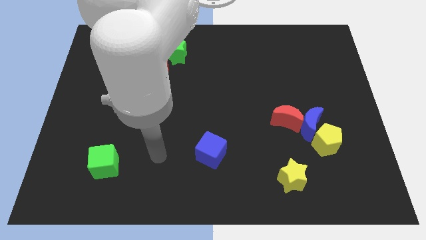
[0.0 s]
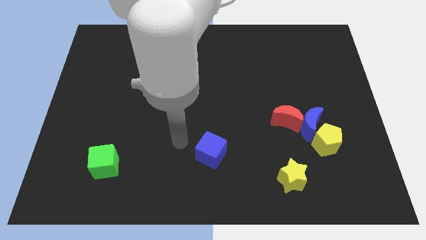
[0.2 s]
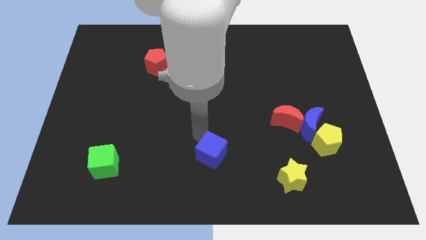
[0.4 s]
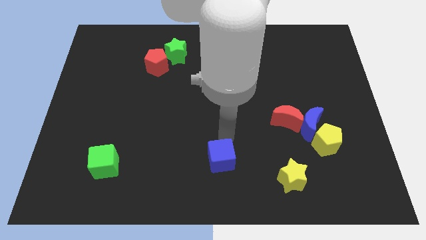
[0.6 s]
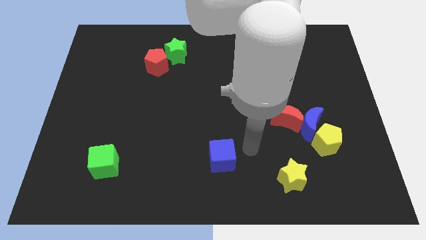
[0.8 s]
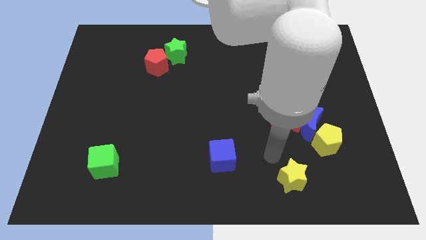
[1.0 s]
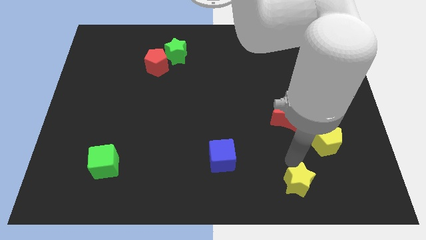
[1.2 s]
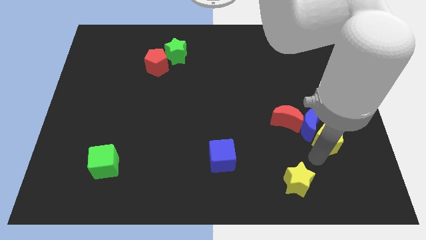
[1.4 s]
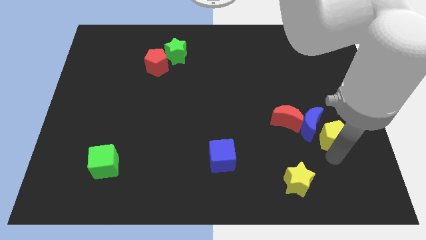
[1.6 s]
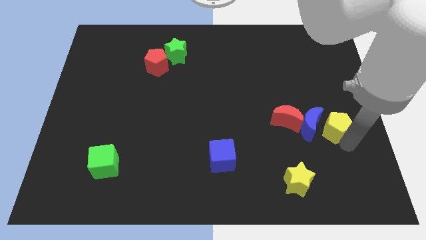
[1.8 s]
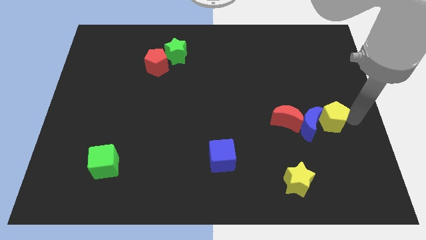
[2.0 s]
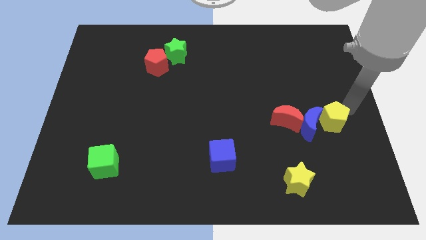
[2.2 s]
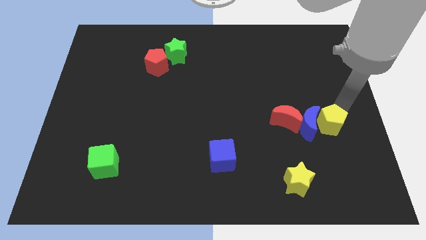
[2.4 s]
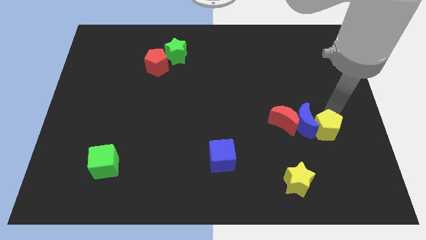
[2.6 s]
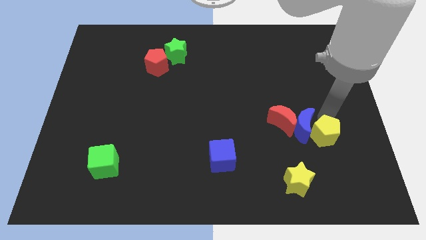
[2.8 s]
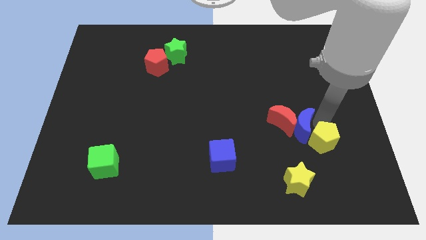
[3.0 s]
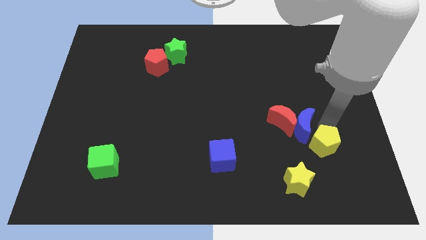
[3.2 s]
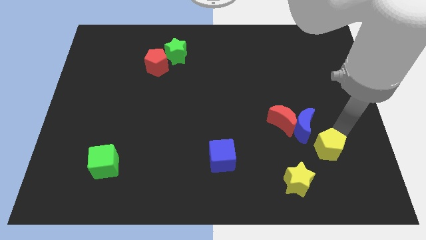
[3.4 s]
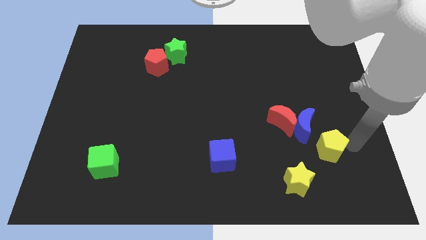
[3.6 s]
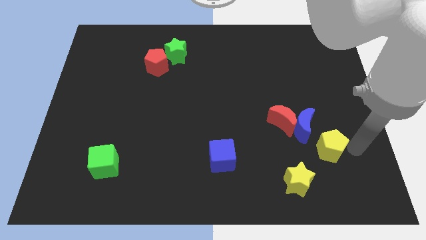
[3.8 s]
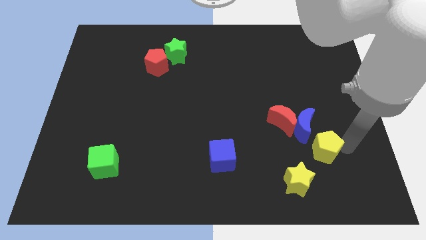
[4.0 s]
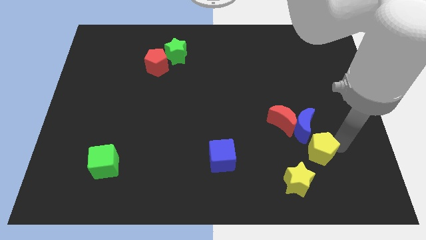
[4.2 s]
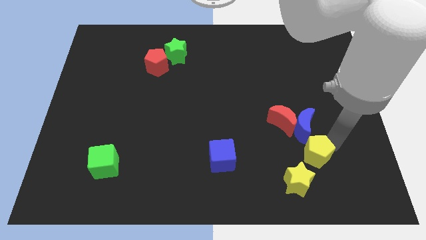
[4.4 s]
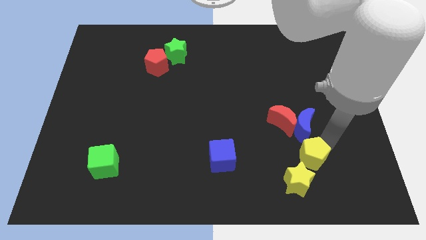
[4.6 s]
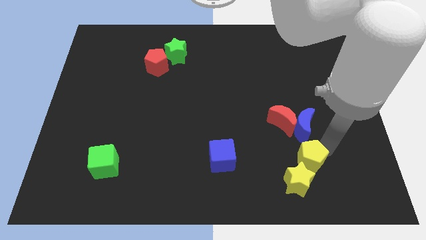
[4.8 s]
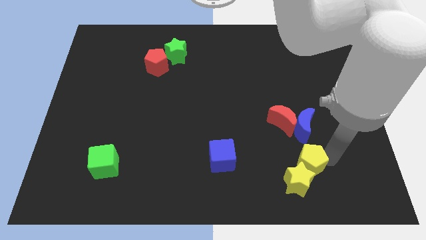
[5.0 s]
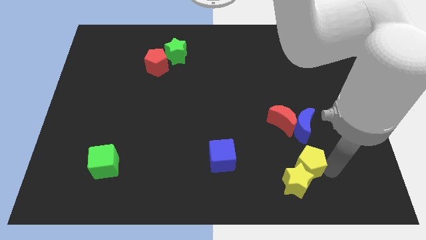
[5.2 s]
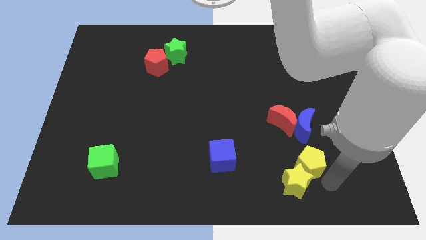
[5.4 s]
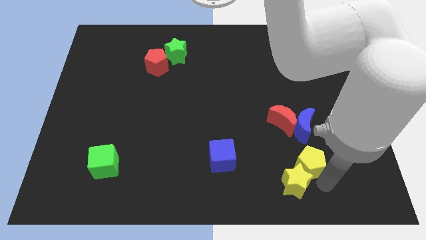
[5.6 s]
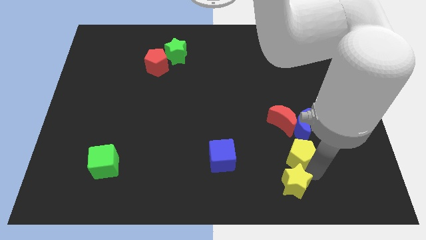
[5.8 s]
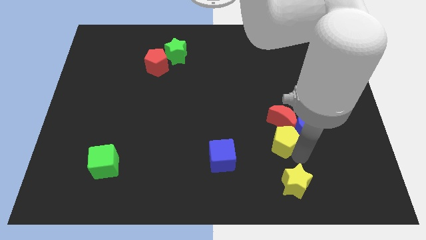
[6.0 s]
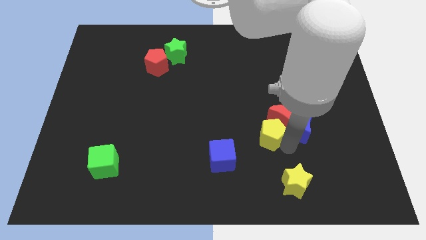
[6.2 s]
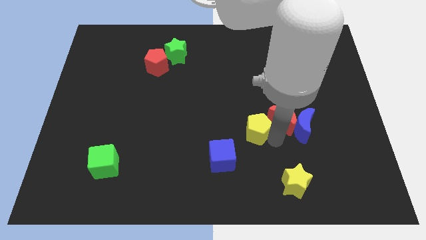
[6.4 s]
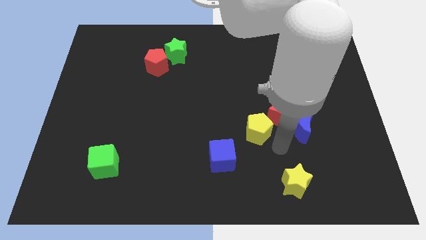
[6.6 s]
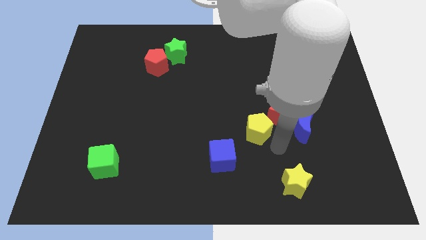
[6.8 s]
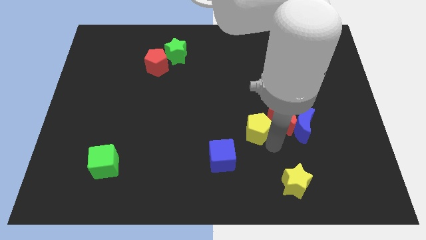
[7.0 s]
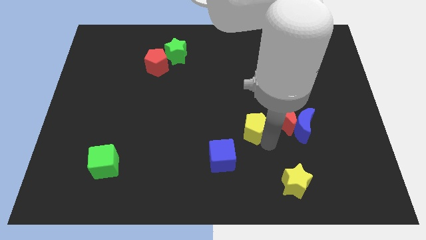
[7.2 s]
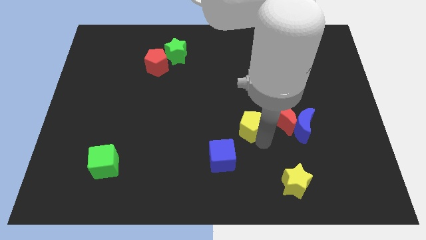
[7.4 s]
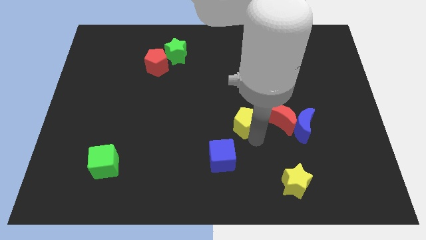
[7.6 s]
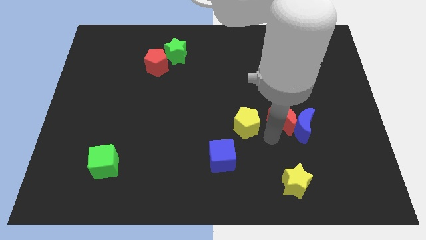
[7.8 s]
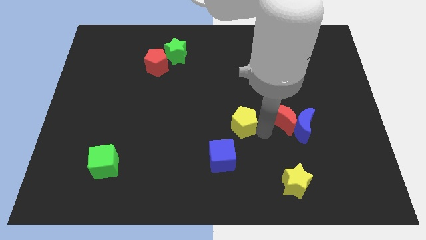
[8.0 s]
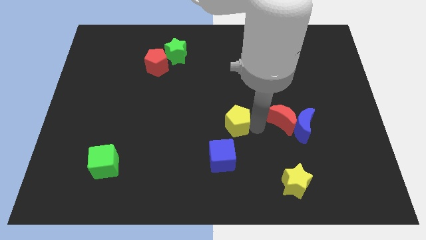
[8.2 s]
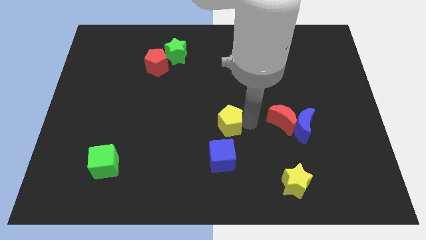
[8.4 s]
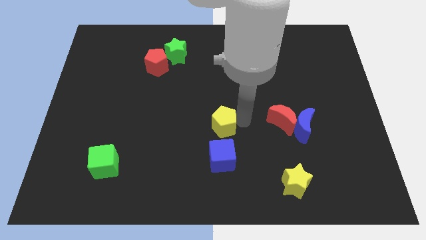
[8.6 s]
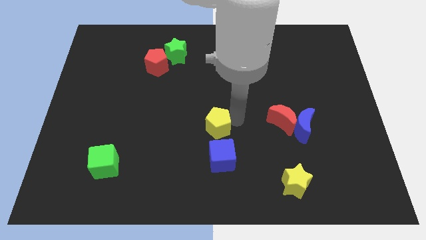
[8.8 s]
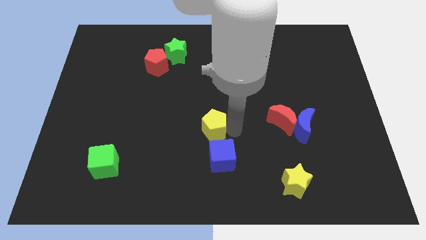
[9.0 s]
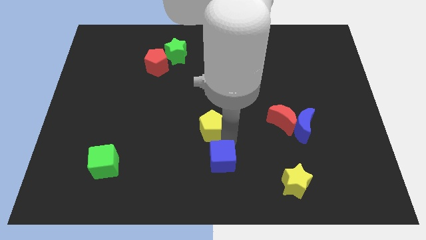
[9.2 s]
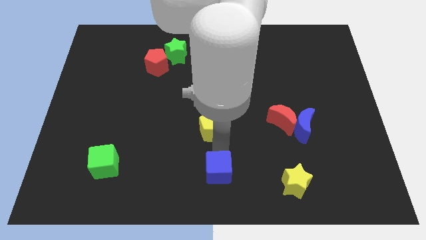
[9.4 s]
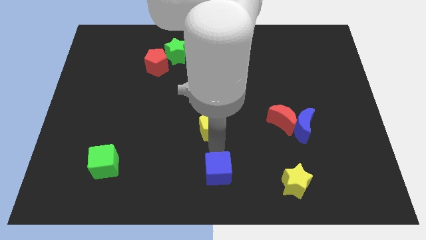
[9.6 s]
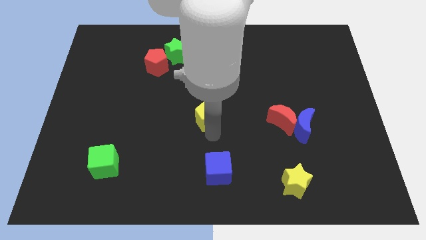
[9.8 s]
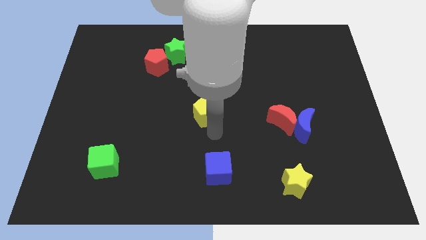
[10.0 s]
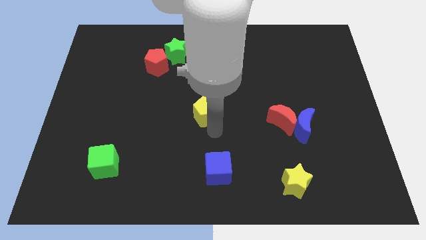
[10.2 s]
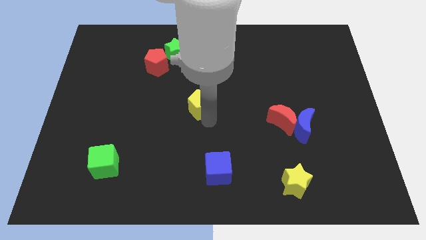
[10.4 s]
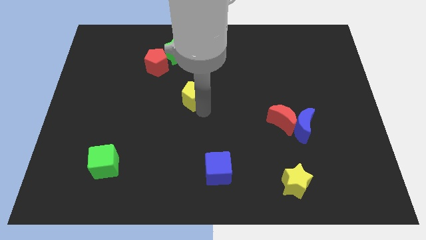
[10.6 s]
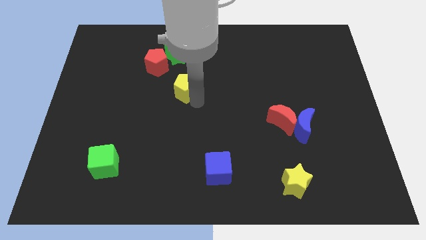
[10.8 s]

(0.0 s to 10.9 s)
slide the yellow pentagon to the bottom right side of the red pentagon

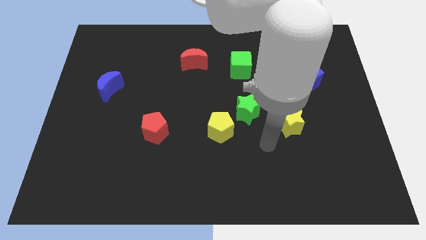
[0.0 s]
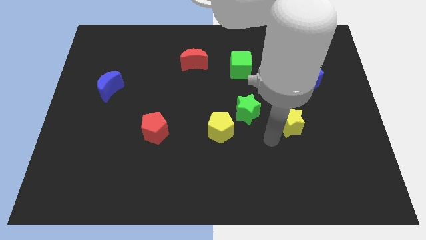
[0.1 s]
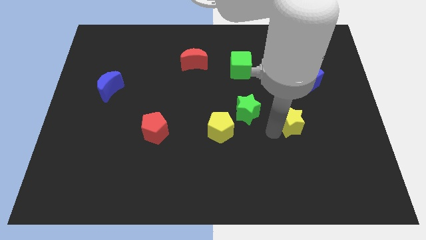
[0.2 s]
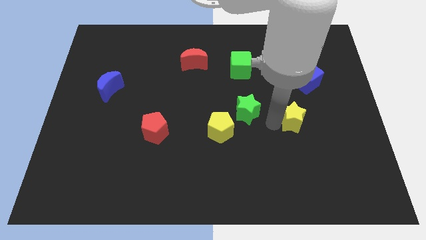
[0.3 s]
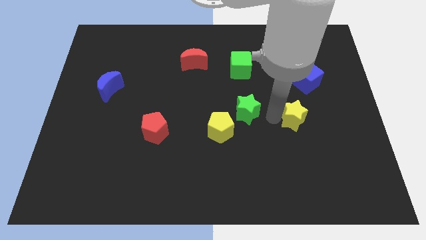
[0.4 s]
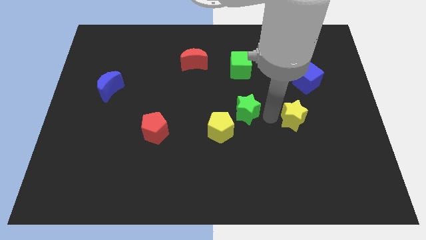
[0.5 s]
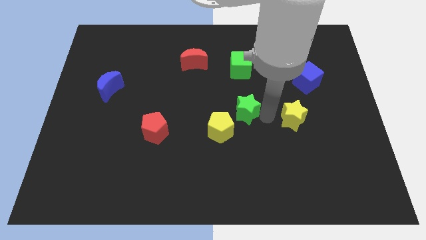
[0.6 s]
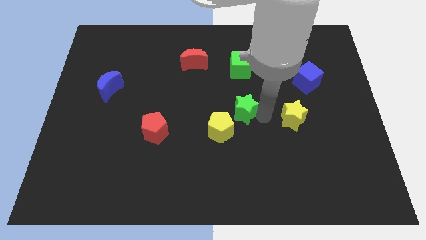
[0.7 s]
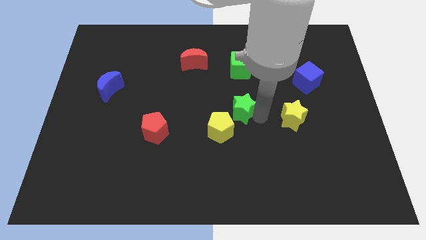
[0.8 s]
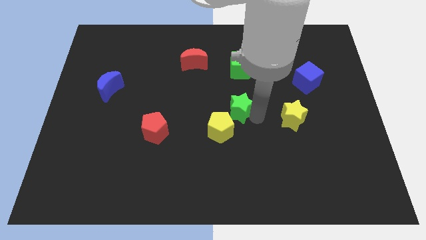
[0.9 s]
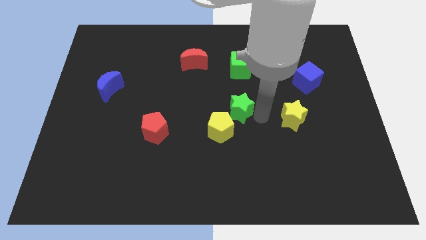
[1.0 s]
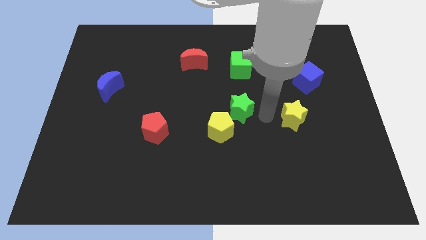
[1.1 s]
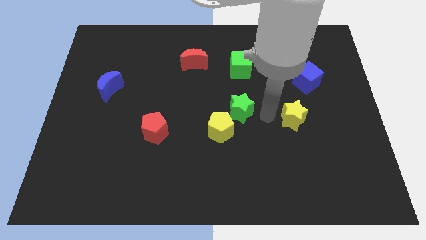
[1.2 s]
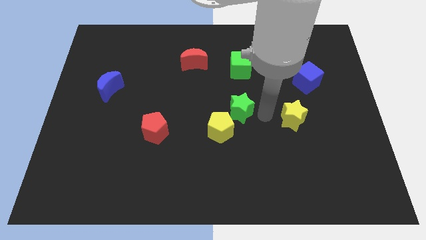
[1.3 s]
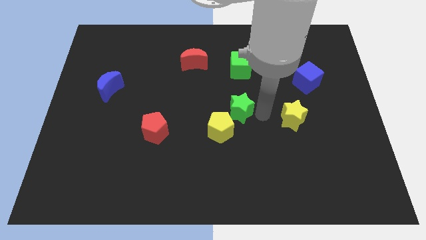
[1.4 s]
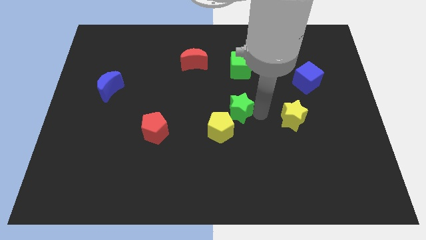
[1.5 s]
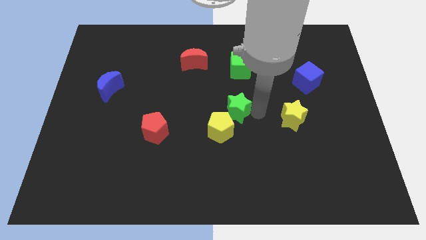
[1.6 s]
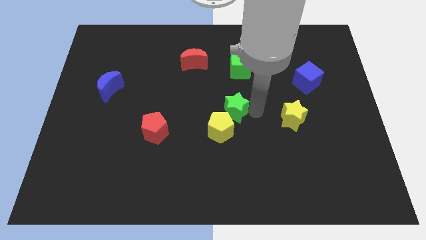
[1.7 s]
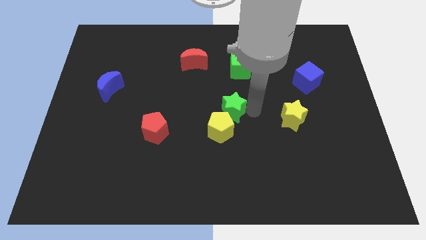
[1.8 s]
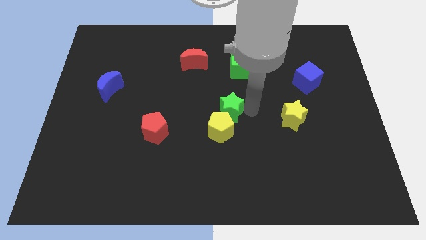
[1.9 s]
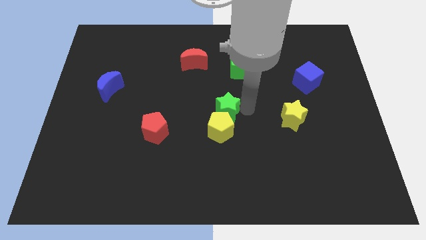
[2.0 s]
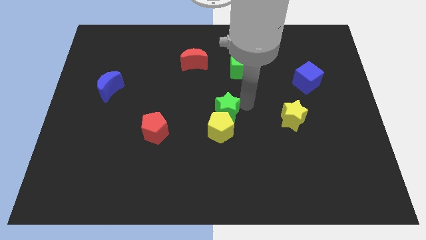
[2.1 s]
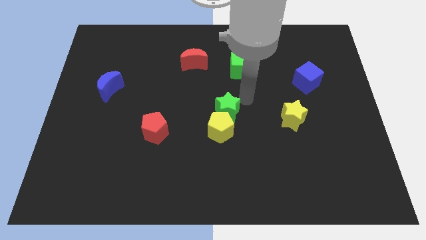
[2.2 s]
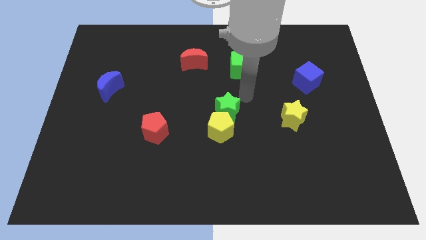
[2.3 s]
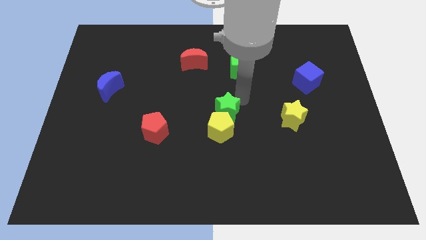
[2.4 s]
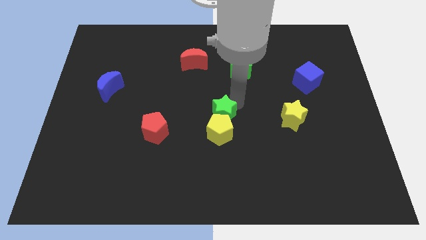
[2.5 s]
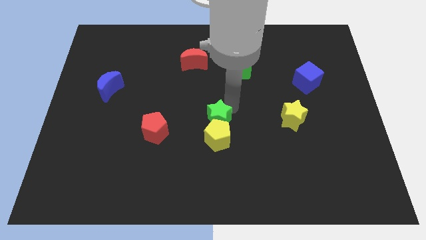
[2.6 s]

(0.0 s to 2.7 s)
push the green star just right of the red pentagon
